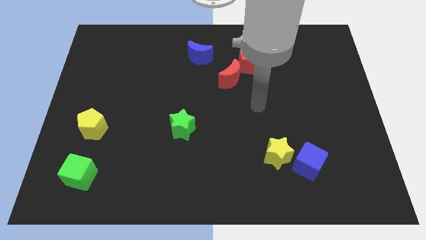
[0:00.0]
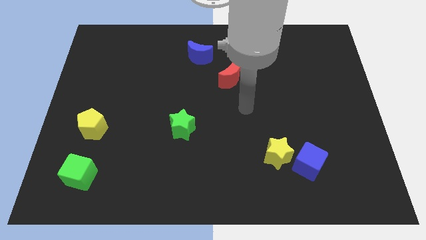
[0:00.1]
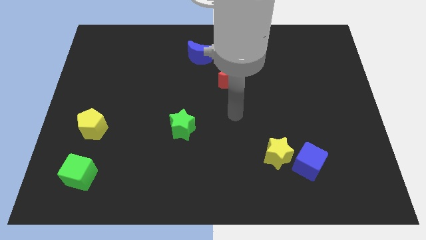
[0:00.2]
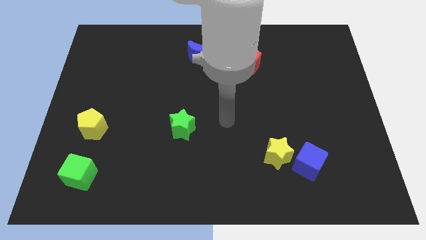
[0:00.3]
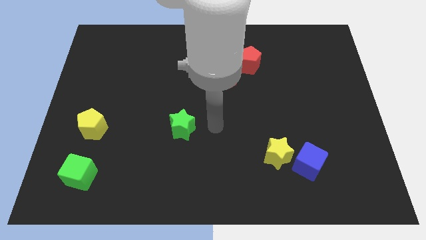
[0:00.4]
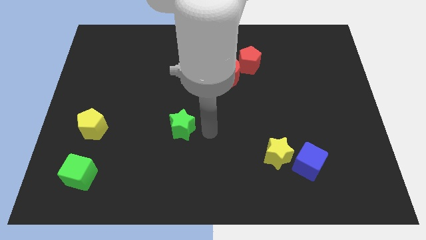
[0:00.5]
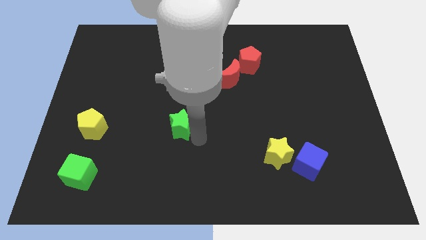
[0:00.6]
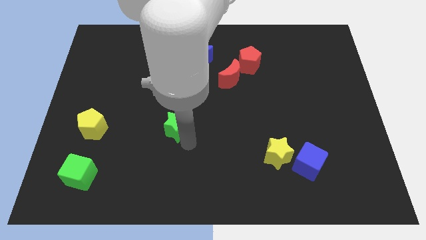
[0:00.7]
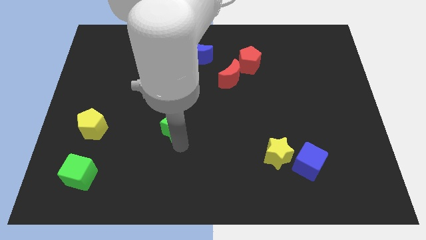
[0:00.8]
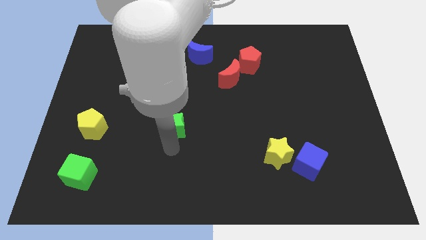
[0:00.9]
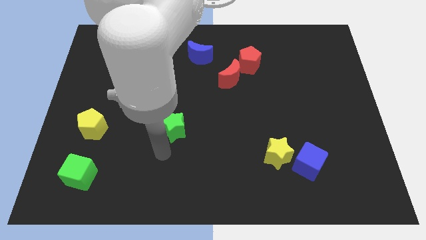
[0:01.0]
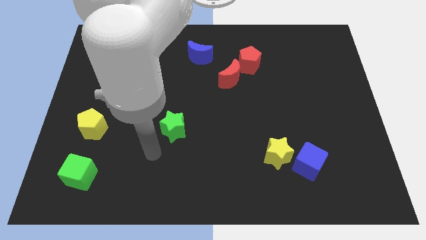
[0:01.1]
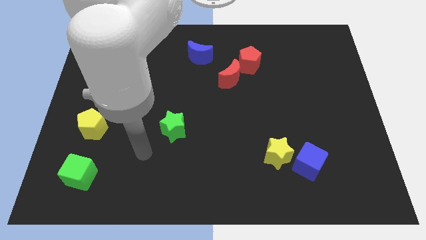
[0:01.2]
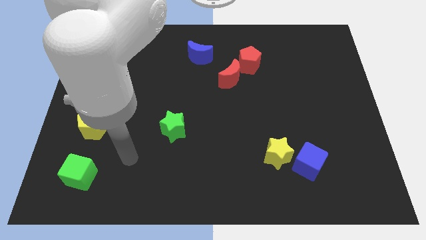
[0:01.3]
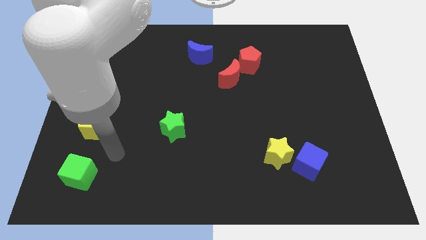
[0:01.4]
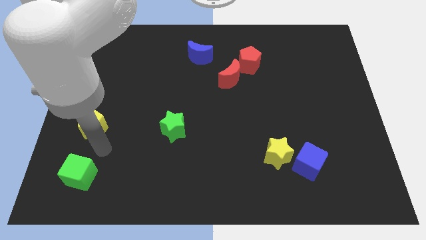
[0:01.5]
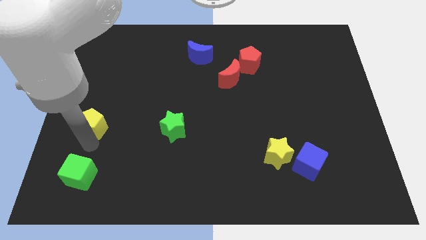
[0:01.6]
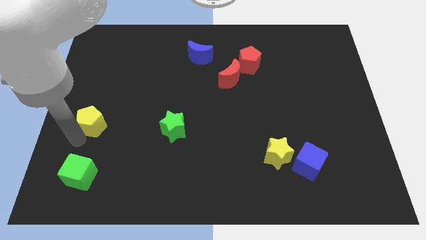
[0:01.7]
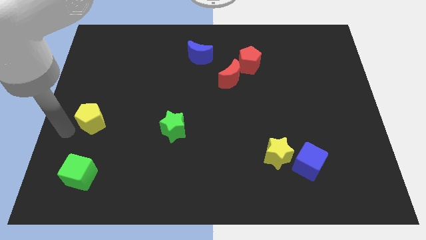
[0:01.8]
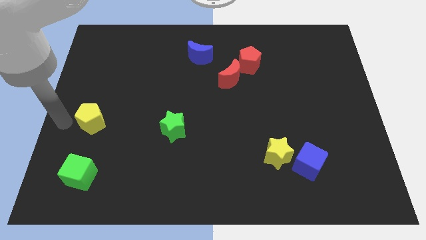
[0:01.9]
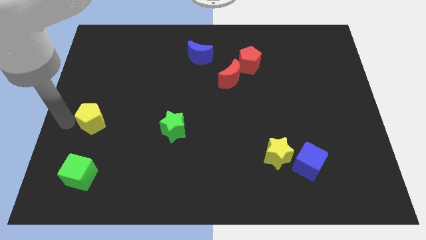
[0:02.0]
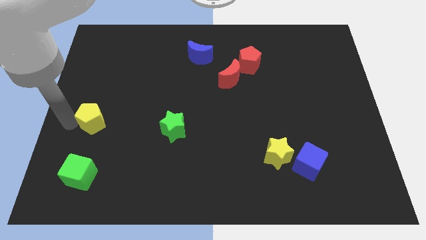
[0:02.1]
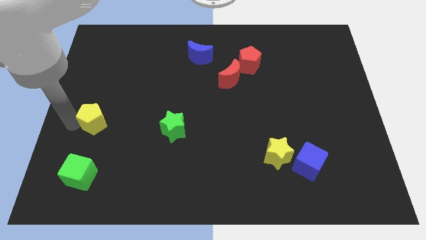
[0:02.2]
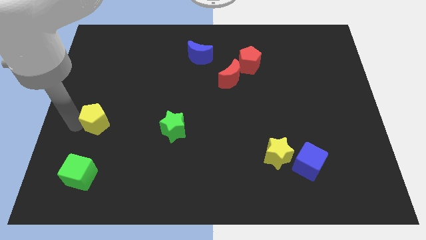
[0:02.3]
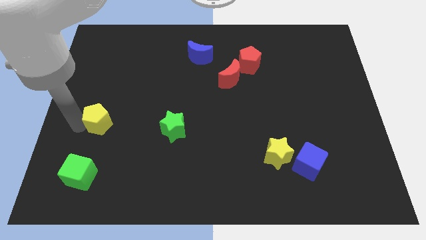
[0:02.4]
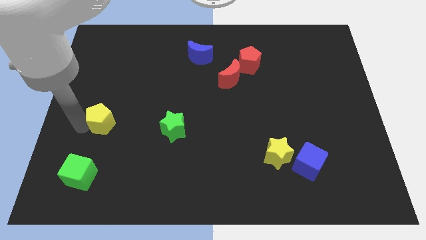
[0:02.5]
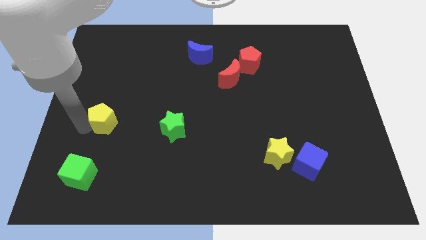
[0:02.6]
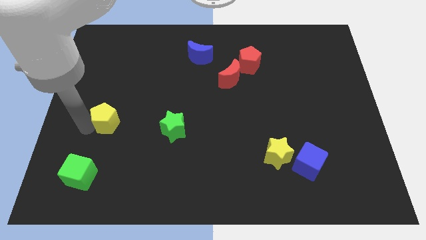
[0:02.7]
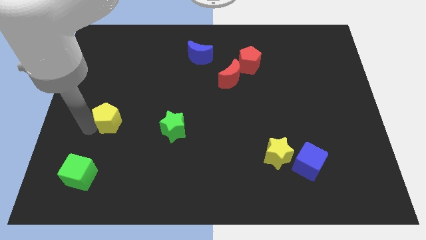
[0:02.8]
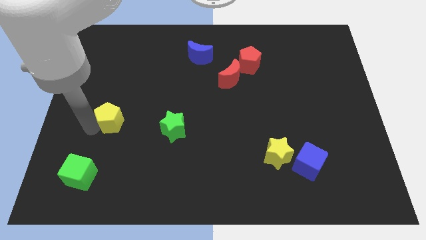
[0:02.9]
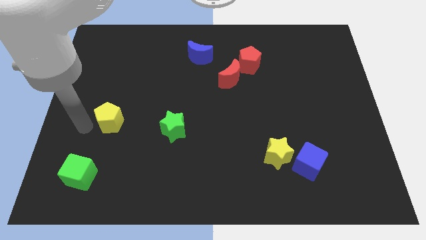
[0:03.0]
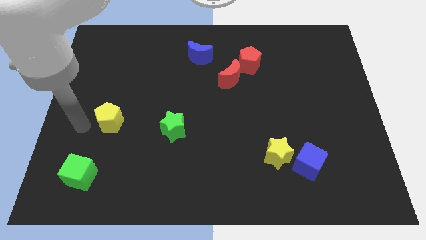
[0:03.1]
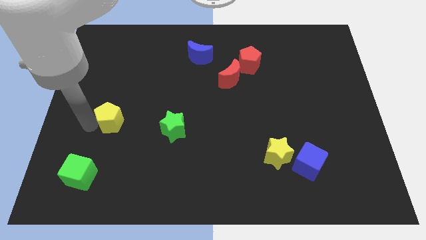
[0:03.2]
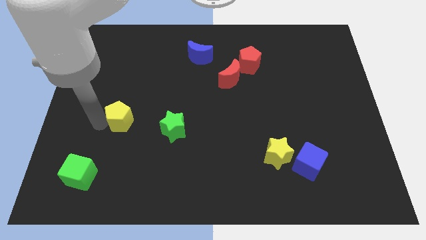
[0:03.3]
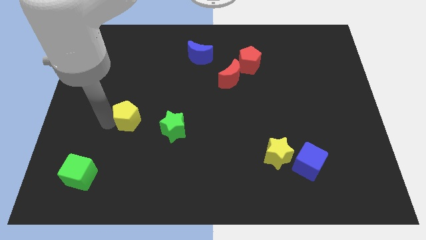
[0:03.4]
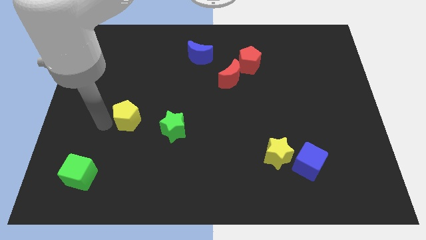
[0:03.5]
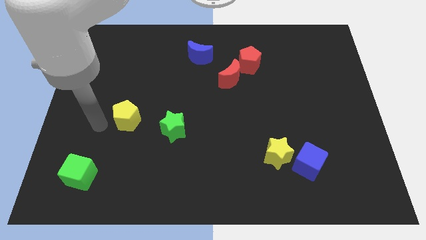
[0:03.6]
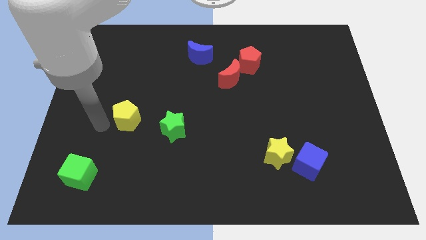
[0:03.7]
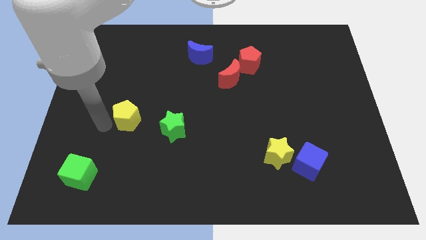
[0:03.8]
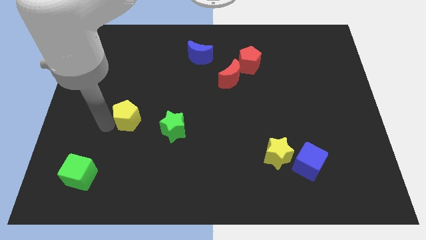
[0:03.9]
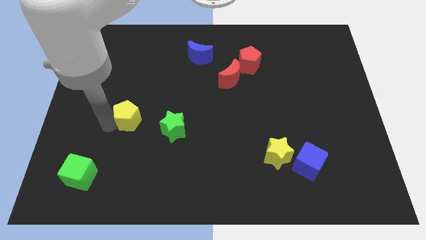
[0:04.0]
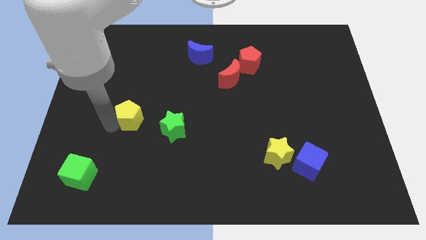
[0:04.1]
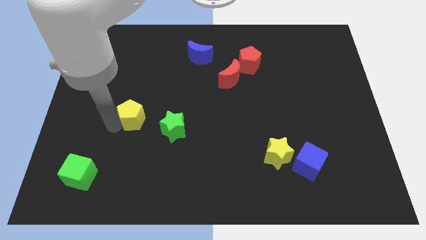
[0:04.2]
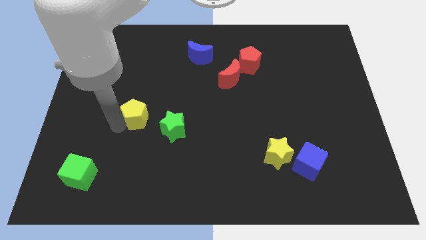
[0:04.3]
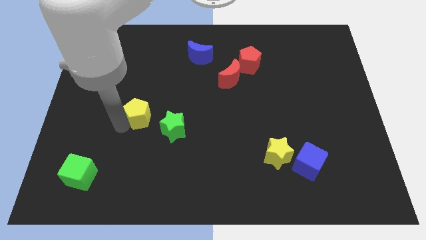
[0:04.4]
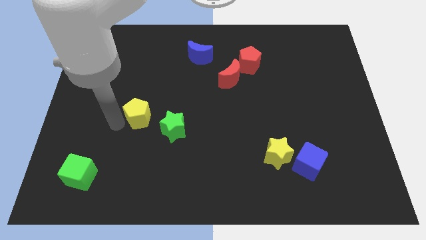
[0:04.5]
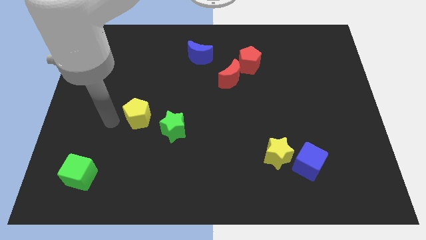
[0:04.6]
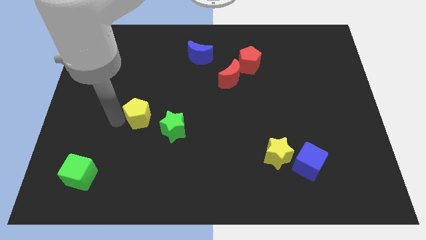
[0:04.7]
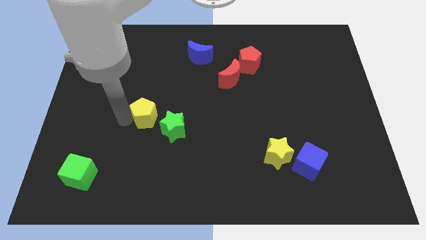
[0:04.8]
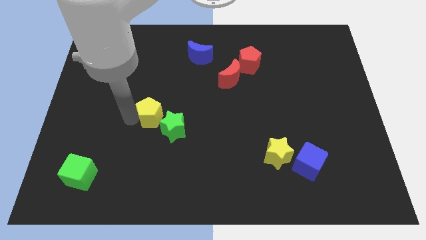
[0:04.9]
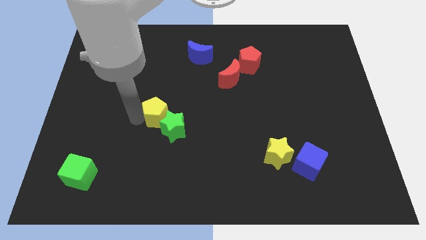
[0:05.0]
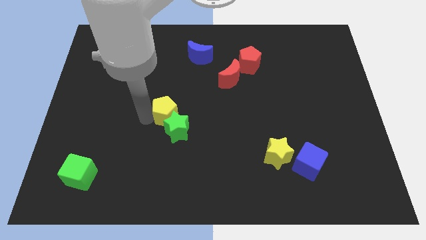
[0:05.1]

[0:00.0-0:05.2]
slide the yellow pentagon to the middle

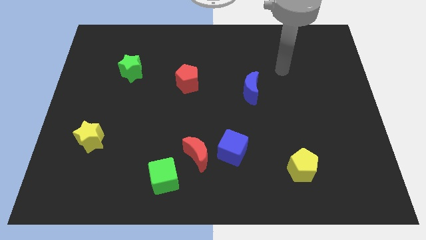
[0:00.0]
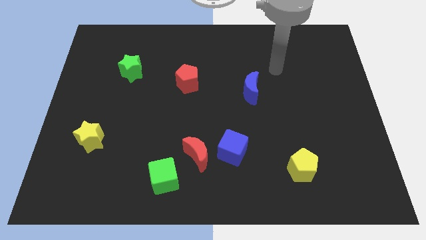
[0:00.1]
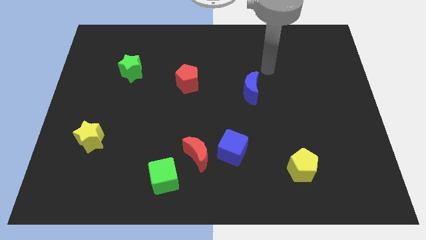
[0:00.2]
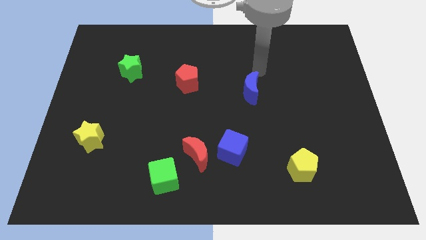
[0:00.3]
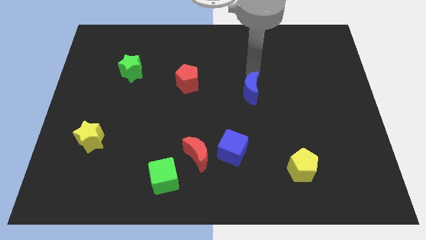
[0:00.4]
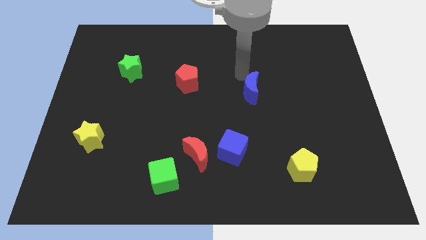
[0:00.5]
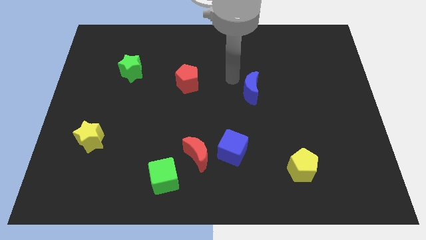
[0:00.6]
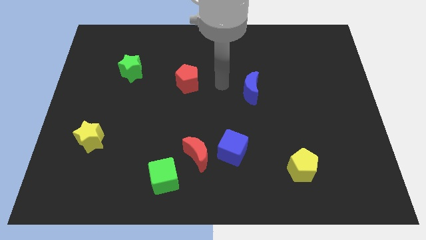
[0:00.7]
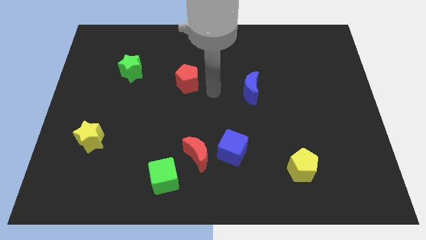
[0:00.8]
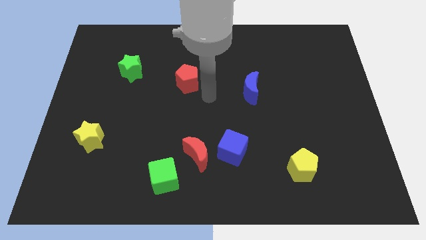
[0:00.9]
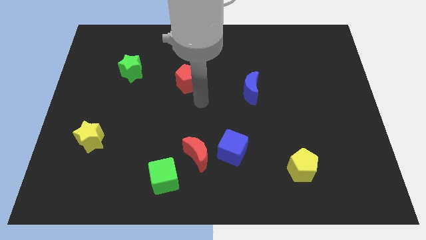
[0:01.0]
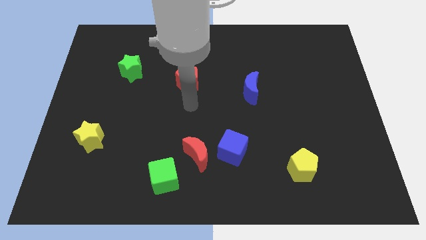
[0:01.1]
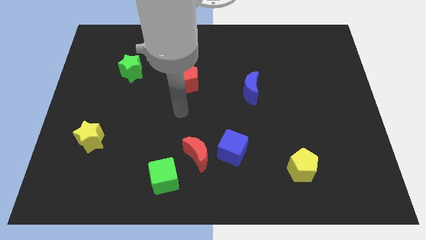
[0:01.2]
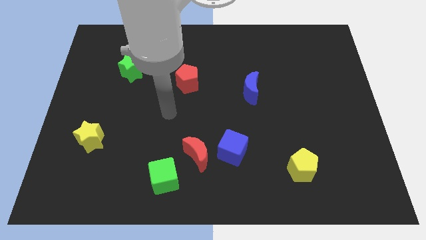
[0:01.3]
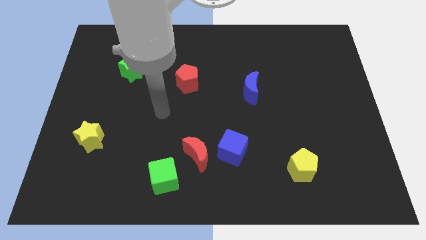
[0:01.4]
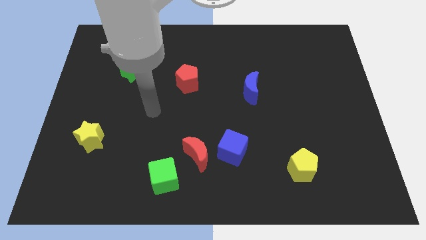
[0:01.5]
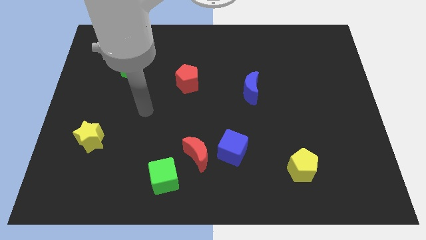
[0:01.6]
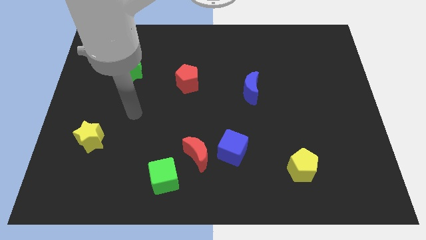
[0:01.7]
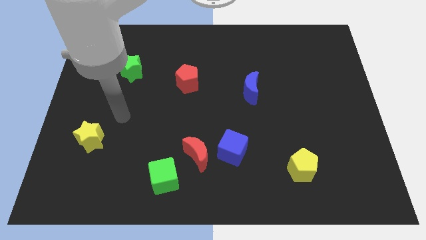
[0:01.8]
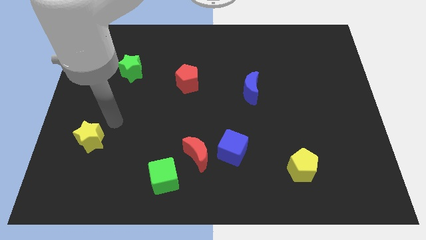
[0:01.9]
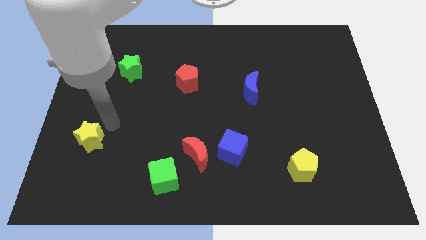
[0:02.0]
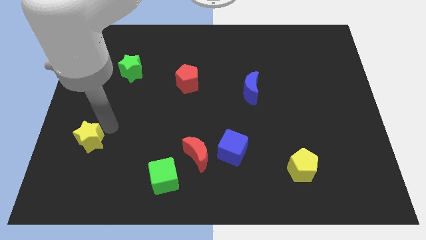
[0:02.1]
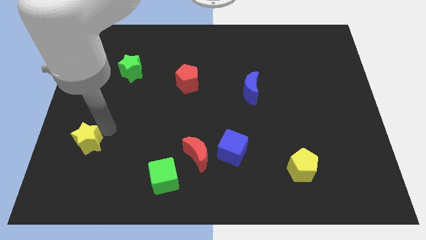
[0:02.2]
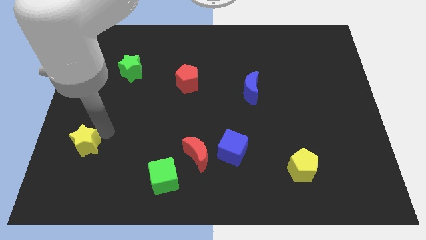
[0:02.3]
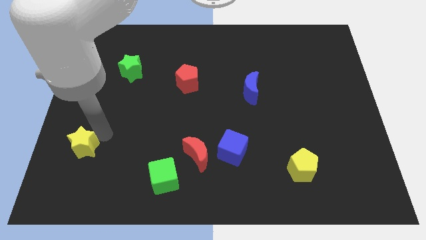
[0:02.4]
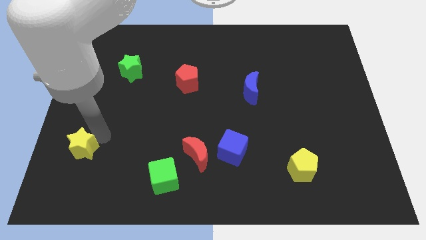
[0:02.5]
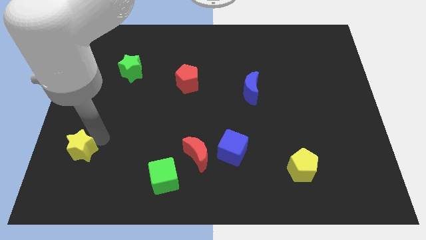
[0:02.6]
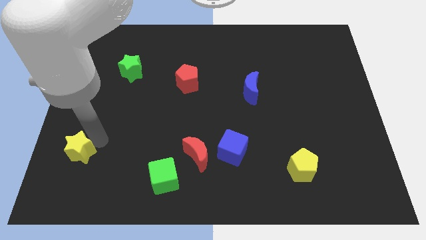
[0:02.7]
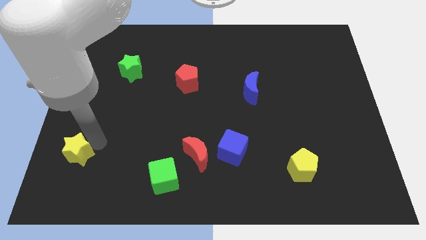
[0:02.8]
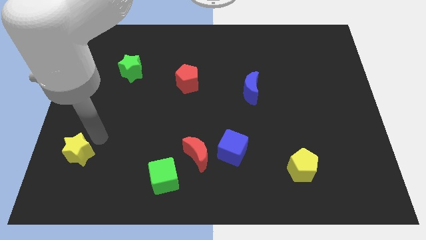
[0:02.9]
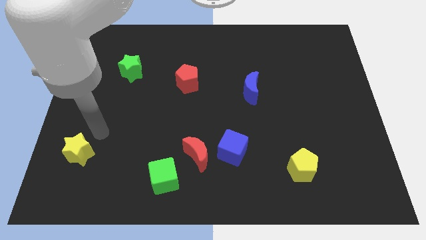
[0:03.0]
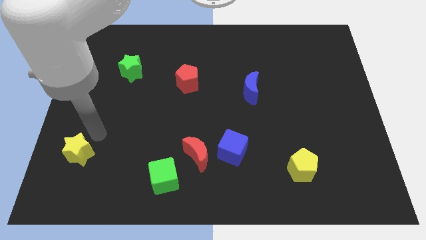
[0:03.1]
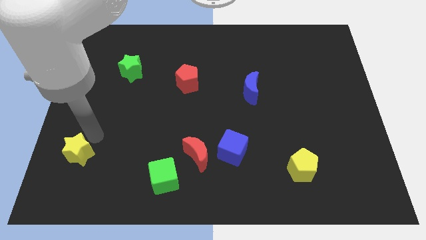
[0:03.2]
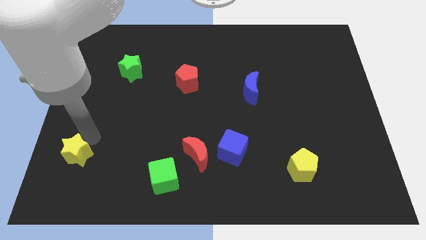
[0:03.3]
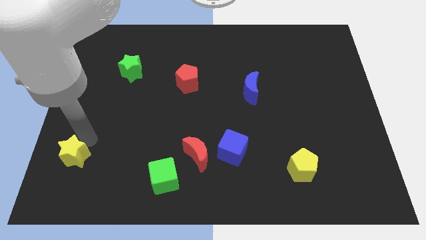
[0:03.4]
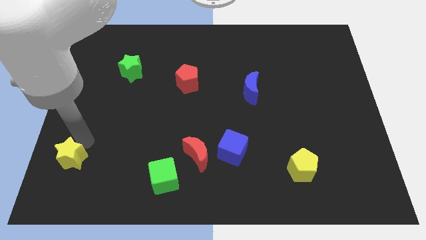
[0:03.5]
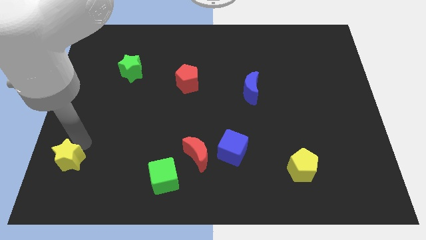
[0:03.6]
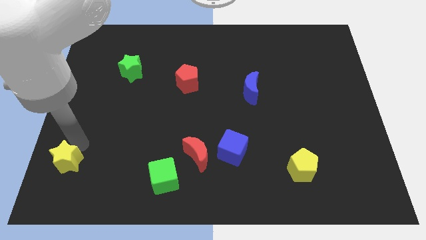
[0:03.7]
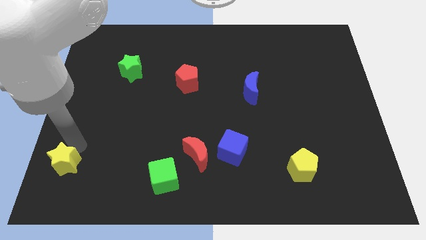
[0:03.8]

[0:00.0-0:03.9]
slide the yellow star to the bottom left of the board
